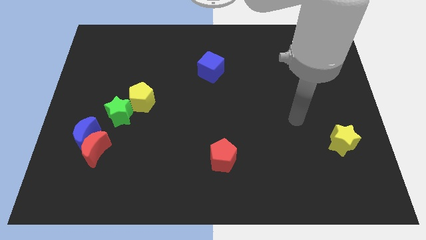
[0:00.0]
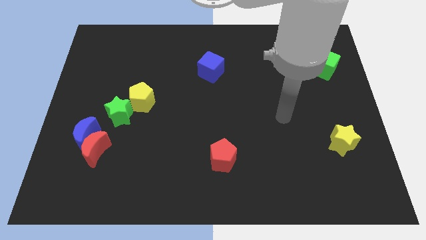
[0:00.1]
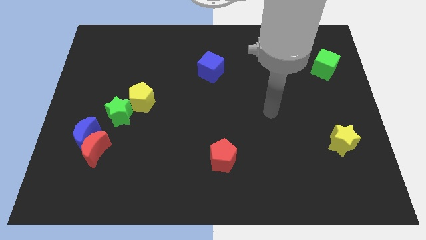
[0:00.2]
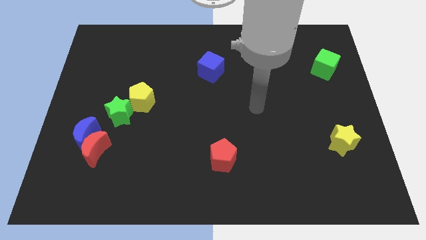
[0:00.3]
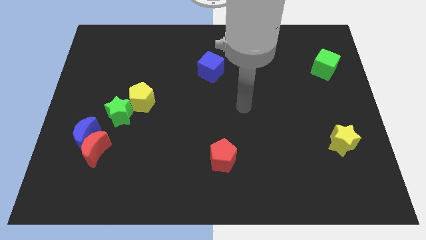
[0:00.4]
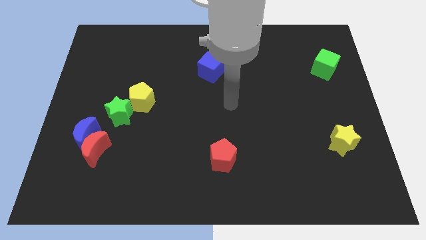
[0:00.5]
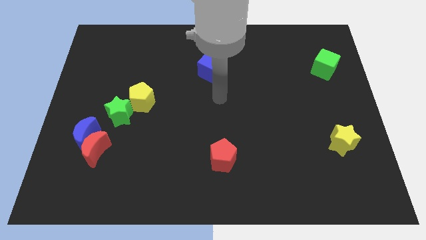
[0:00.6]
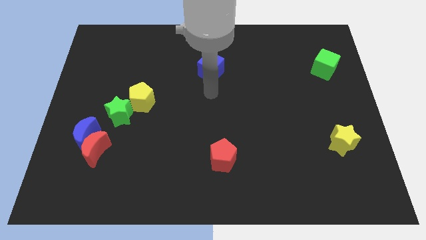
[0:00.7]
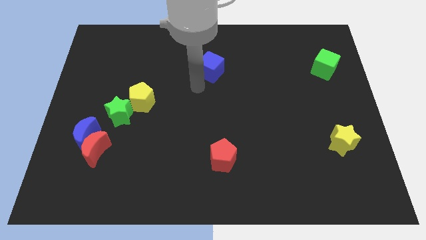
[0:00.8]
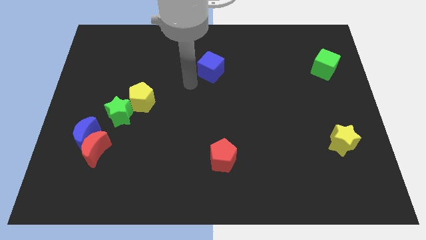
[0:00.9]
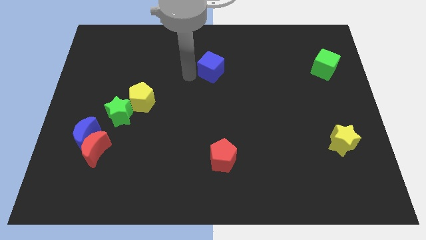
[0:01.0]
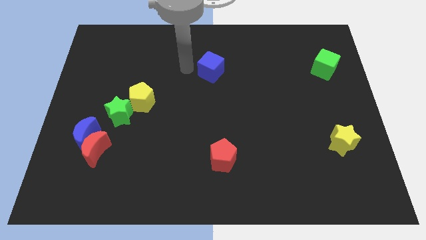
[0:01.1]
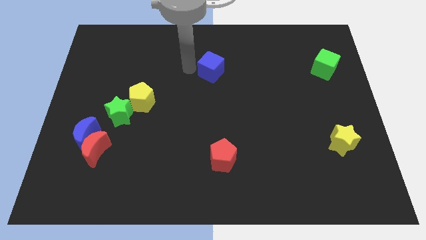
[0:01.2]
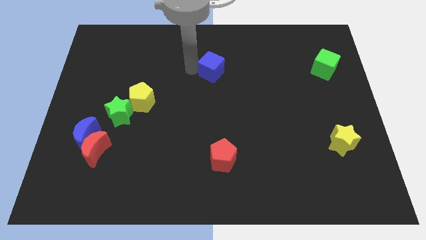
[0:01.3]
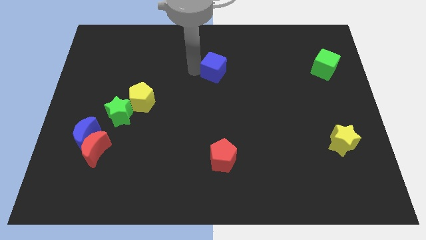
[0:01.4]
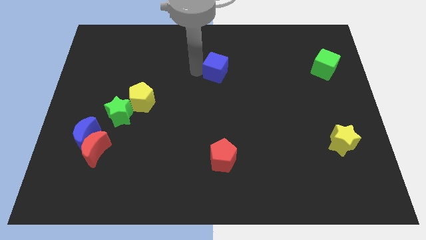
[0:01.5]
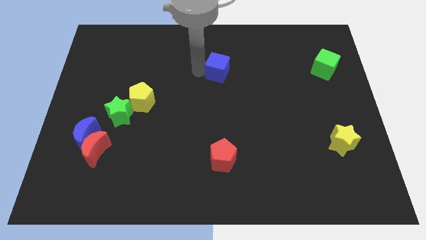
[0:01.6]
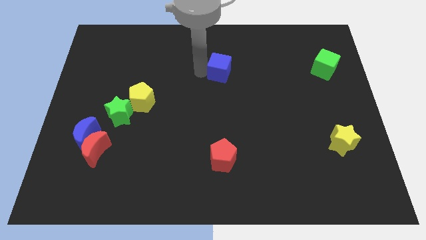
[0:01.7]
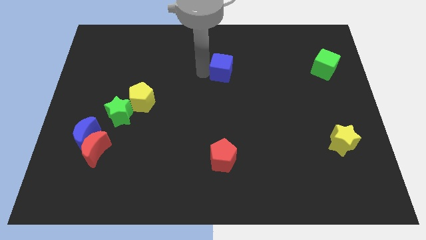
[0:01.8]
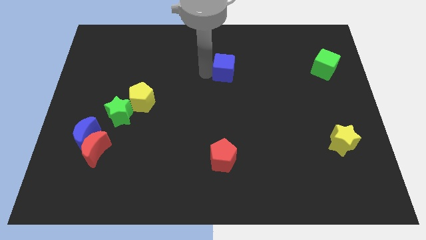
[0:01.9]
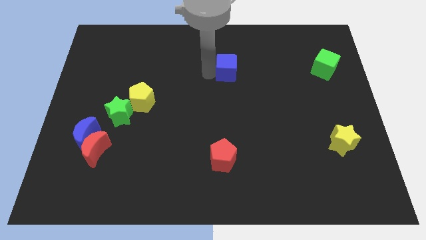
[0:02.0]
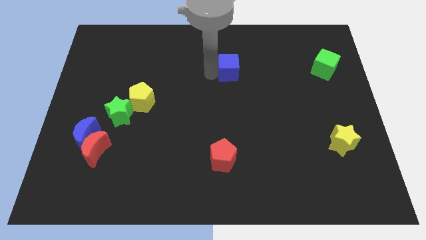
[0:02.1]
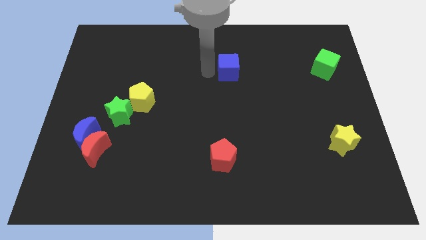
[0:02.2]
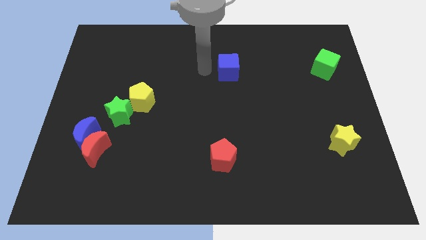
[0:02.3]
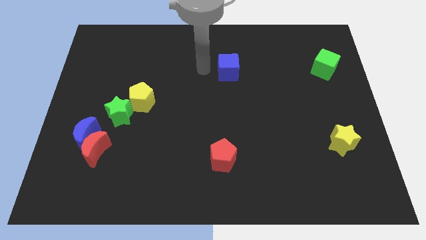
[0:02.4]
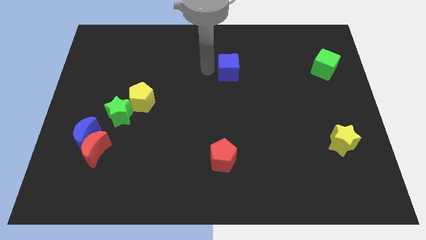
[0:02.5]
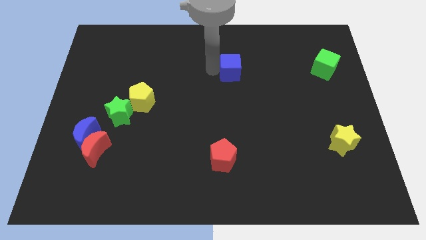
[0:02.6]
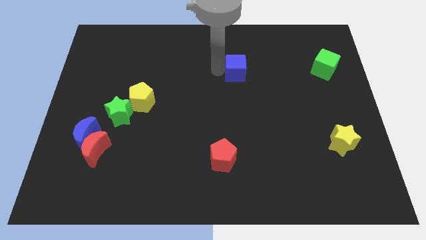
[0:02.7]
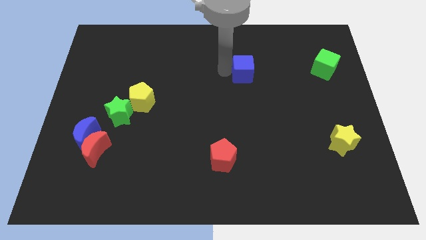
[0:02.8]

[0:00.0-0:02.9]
move the blue cube slightly right

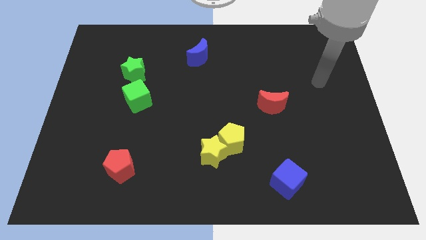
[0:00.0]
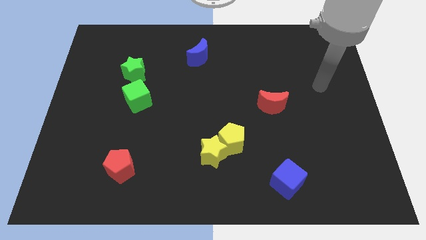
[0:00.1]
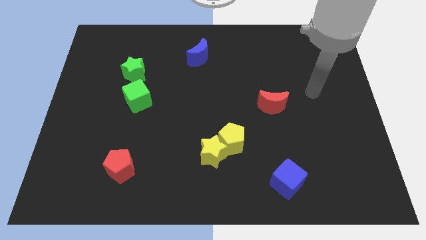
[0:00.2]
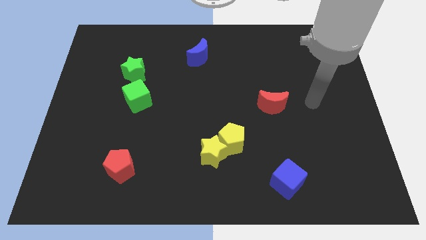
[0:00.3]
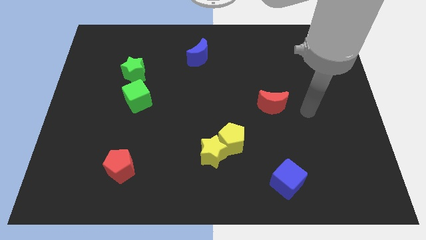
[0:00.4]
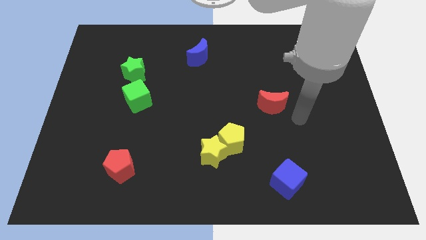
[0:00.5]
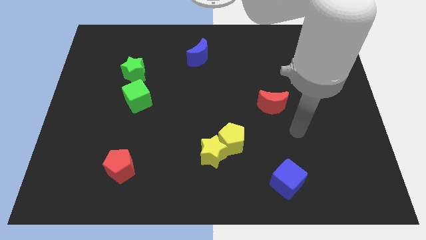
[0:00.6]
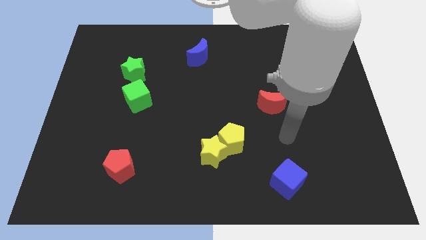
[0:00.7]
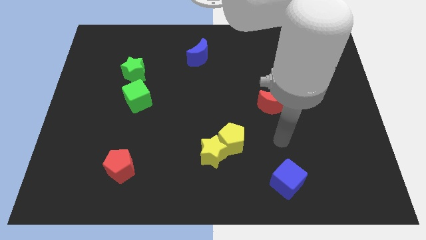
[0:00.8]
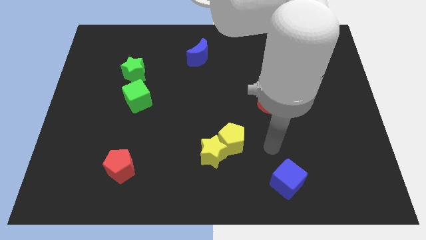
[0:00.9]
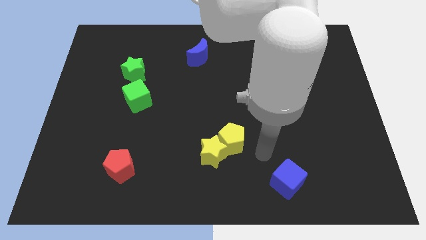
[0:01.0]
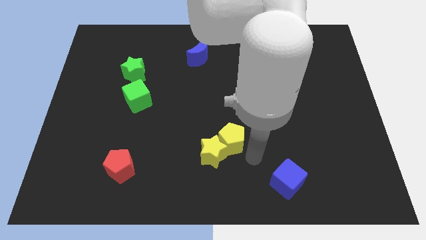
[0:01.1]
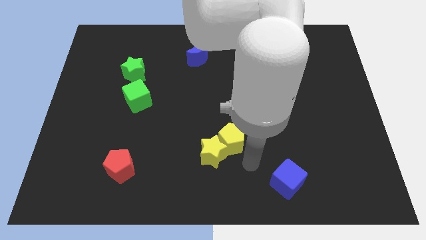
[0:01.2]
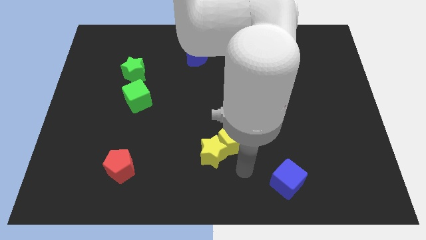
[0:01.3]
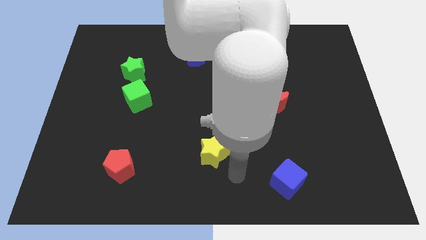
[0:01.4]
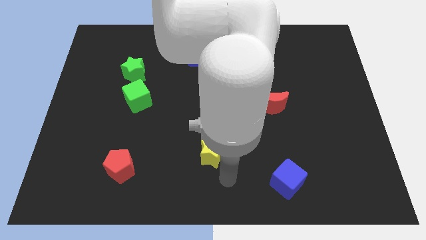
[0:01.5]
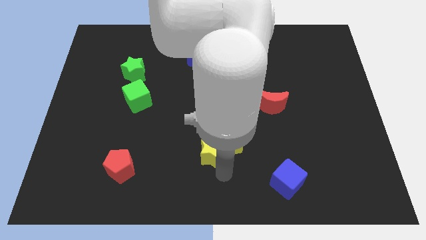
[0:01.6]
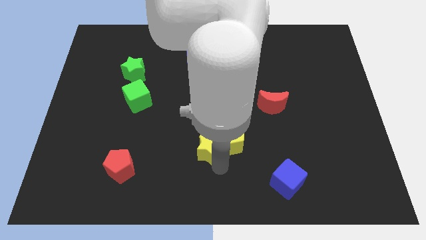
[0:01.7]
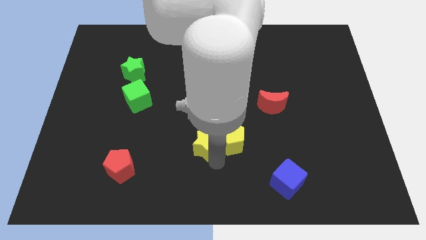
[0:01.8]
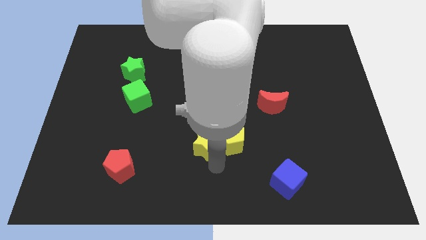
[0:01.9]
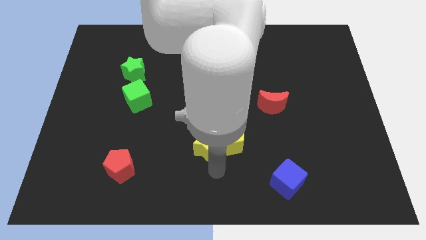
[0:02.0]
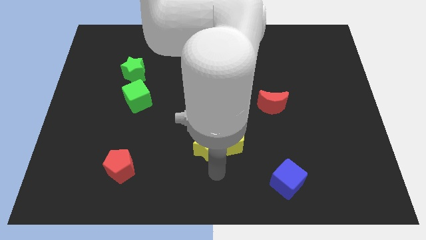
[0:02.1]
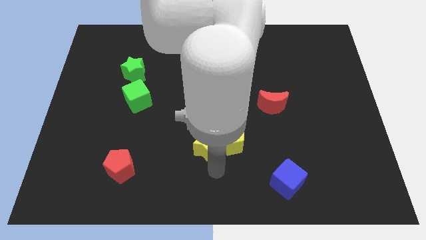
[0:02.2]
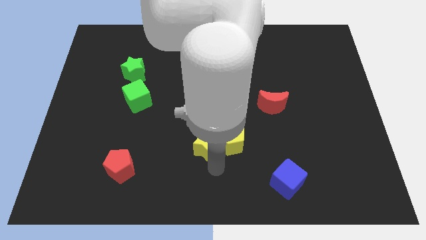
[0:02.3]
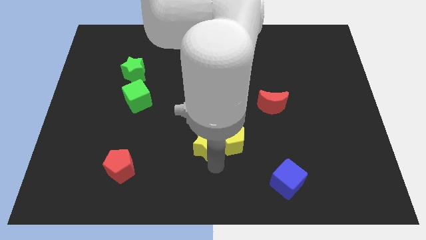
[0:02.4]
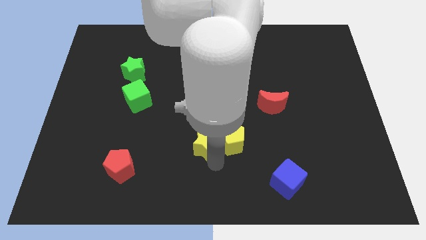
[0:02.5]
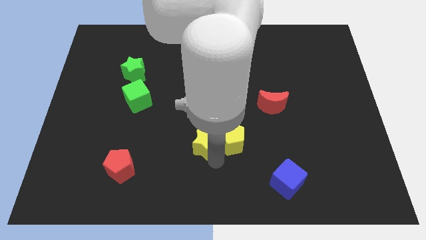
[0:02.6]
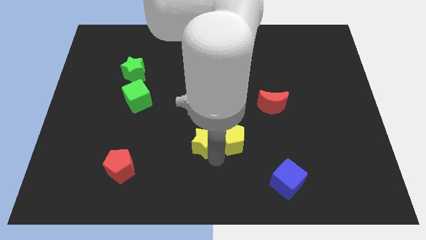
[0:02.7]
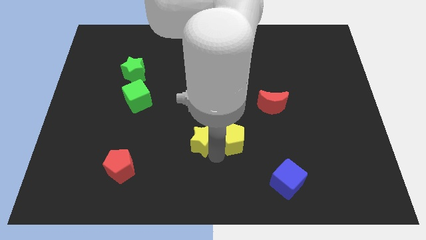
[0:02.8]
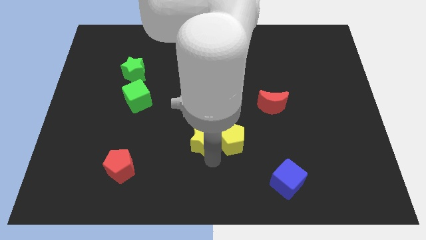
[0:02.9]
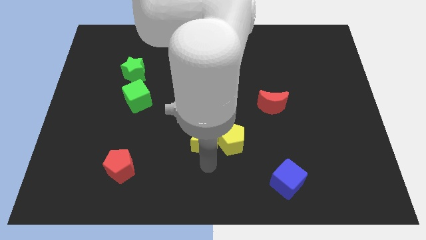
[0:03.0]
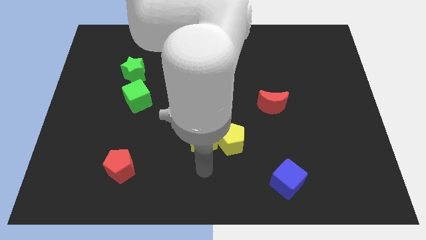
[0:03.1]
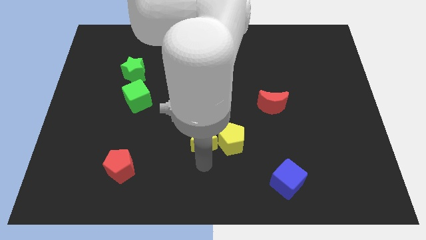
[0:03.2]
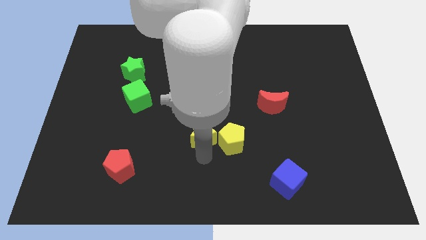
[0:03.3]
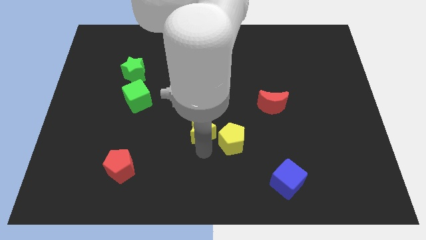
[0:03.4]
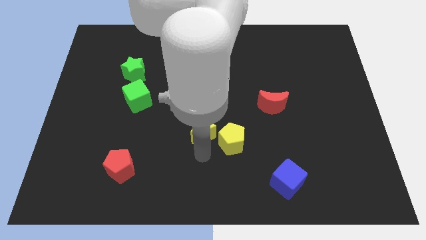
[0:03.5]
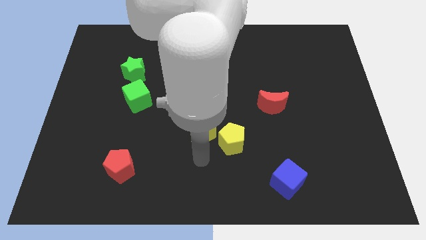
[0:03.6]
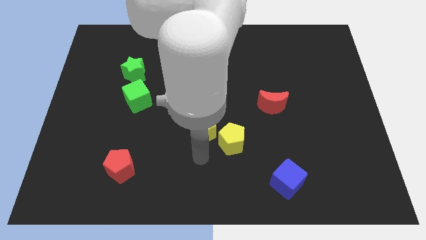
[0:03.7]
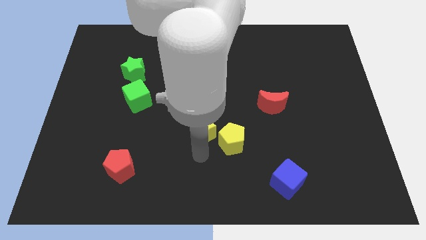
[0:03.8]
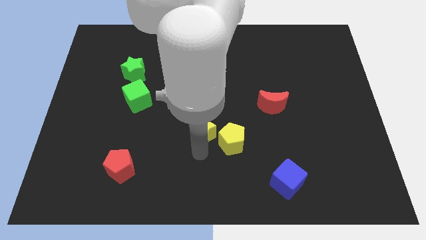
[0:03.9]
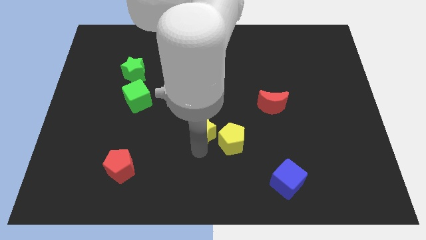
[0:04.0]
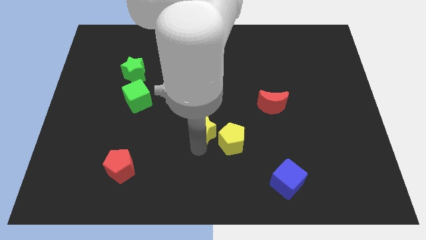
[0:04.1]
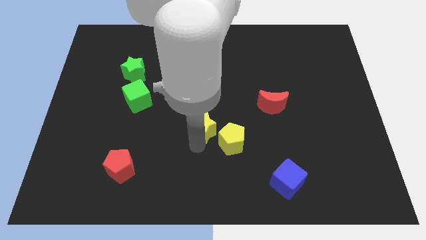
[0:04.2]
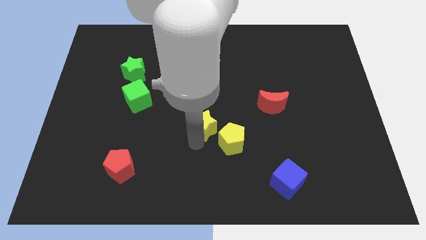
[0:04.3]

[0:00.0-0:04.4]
move the yellow star a bit up

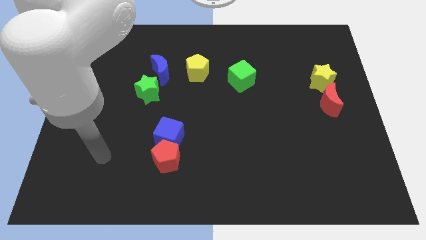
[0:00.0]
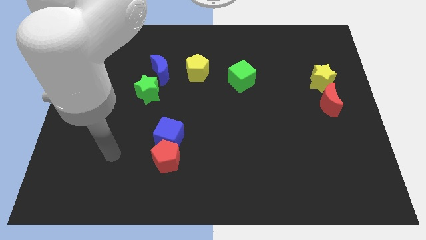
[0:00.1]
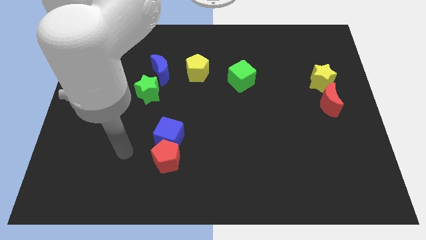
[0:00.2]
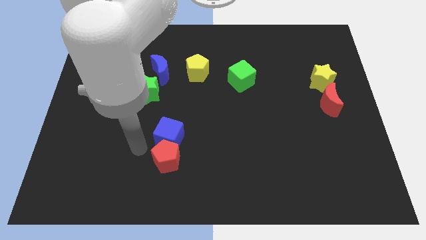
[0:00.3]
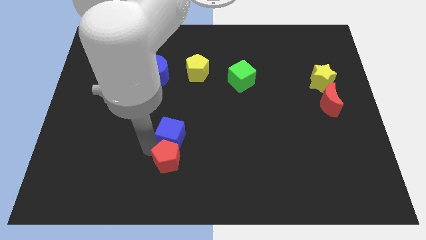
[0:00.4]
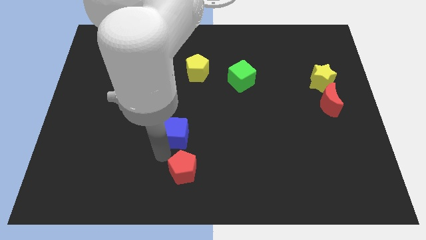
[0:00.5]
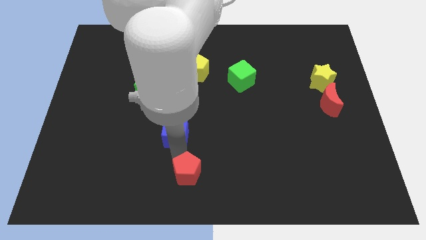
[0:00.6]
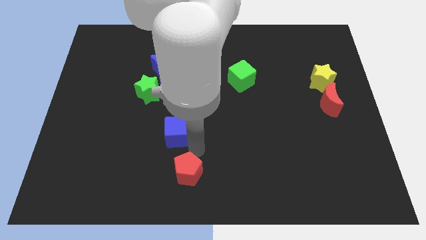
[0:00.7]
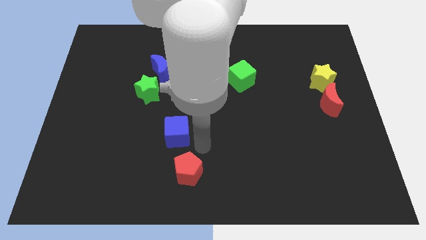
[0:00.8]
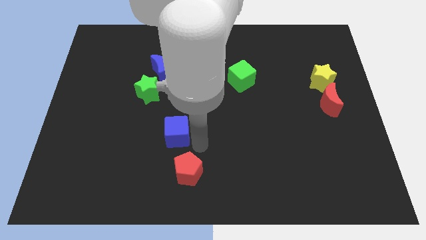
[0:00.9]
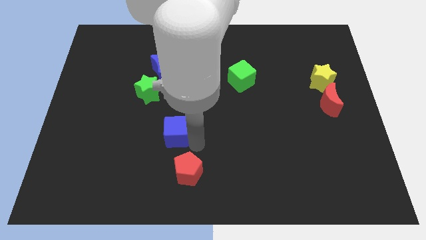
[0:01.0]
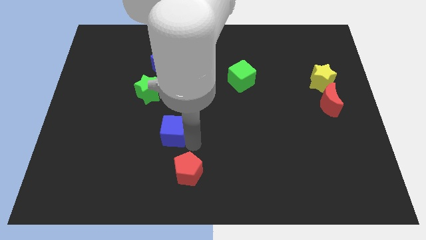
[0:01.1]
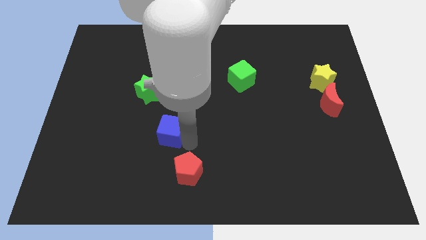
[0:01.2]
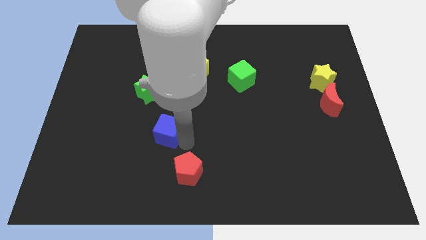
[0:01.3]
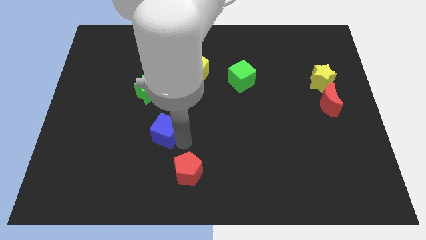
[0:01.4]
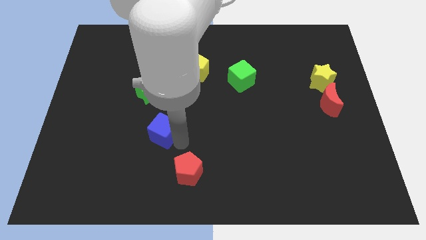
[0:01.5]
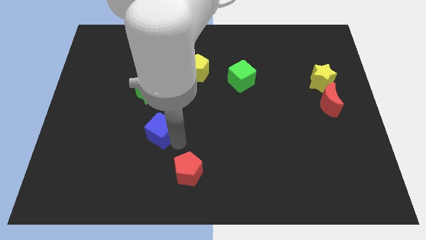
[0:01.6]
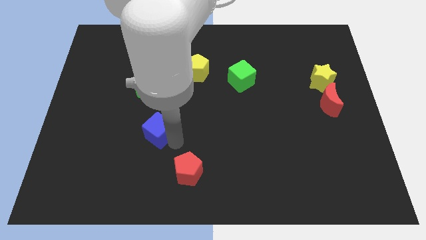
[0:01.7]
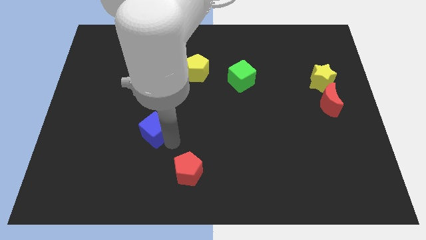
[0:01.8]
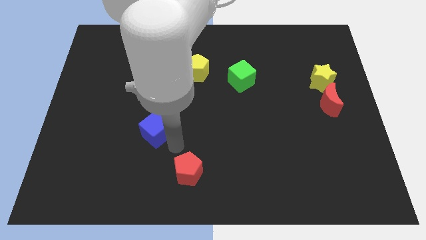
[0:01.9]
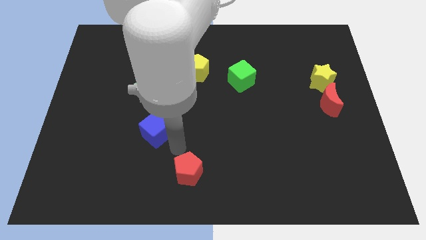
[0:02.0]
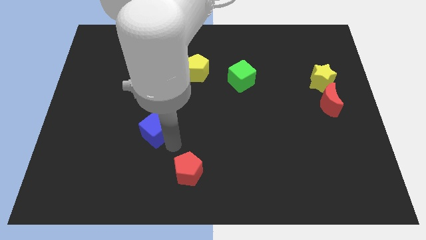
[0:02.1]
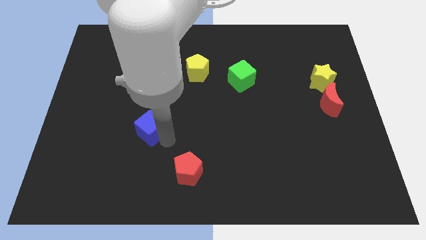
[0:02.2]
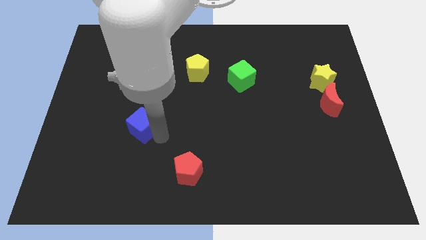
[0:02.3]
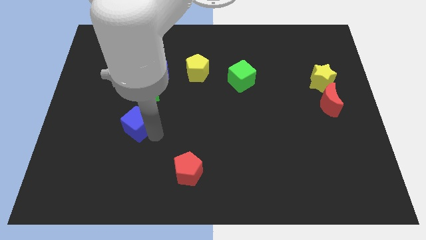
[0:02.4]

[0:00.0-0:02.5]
slightly push the blue cube diagonally up and left
